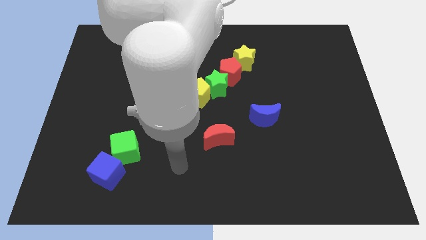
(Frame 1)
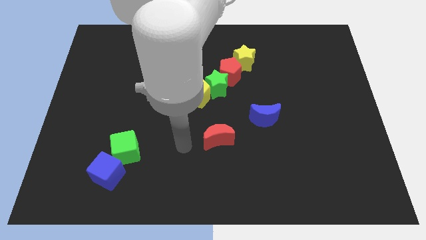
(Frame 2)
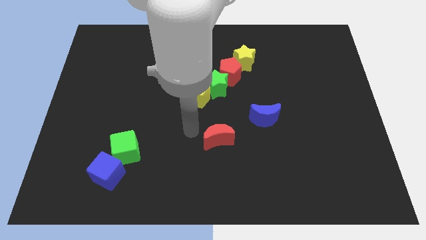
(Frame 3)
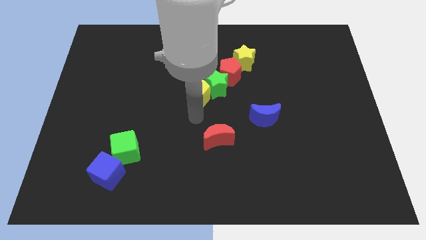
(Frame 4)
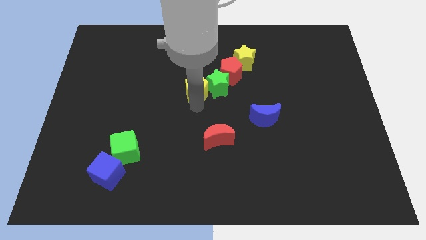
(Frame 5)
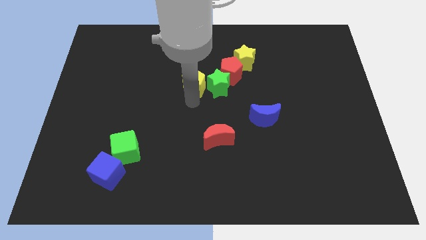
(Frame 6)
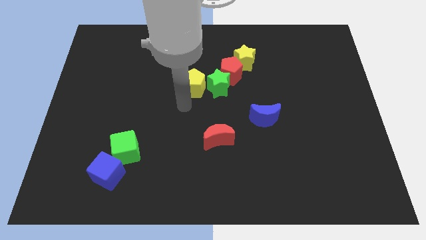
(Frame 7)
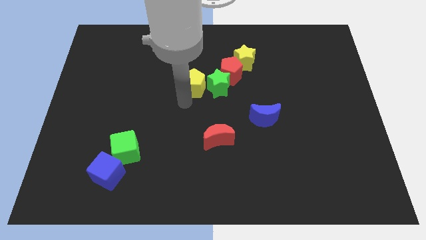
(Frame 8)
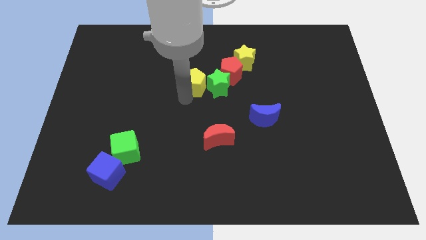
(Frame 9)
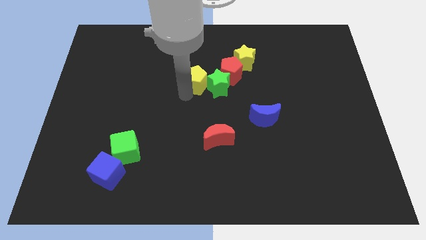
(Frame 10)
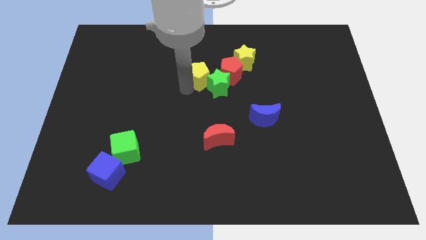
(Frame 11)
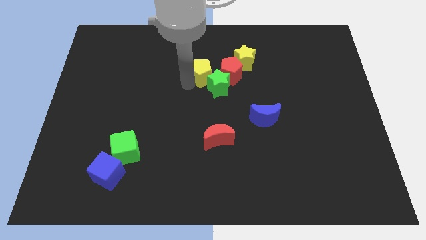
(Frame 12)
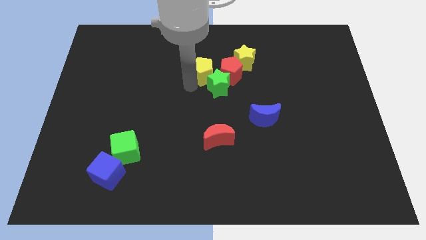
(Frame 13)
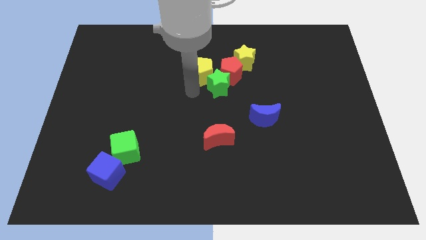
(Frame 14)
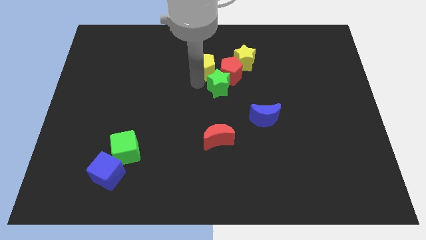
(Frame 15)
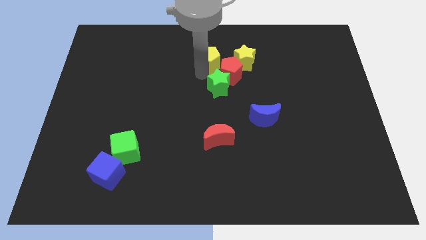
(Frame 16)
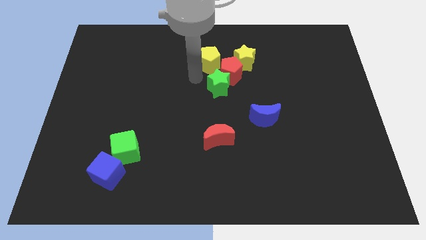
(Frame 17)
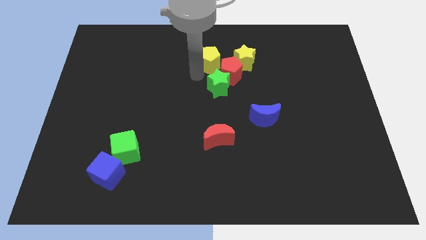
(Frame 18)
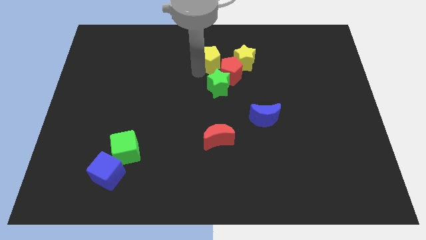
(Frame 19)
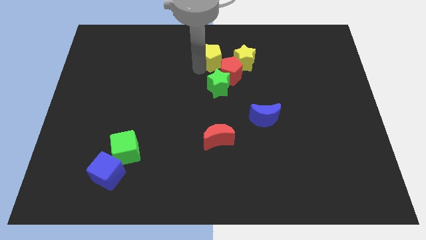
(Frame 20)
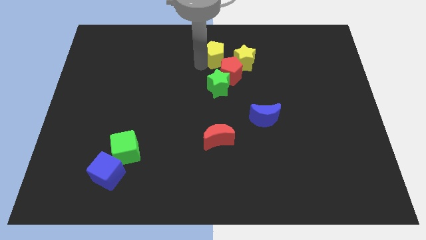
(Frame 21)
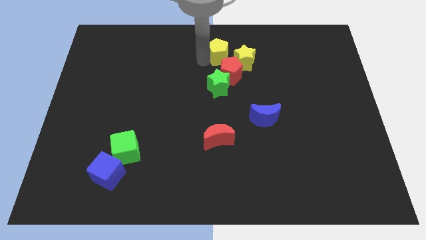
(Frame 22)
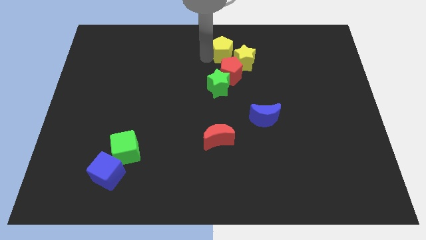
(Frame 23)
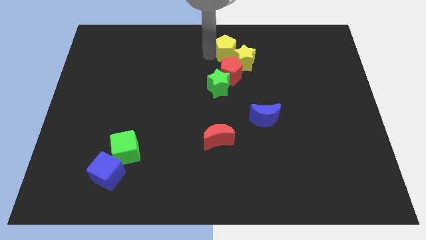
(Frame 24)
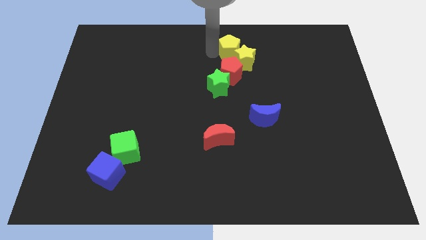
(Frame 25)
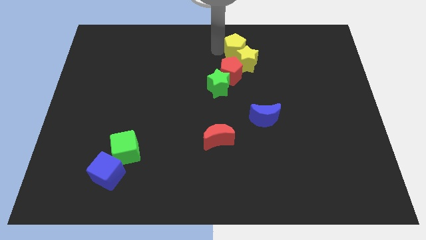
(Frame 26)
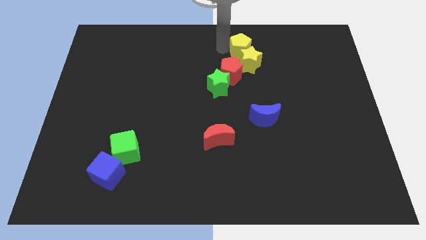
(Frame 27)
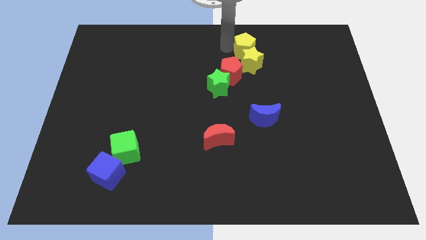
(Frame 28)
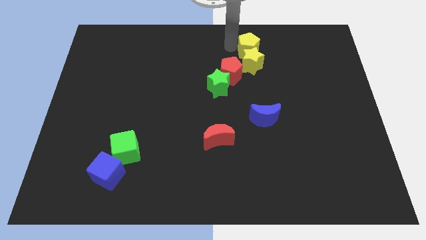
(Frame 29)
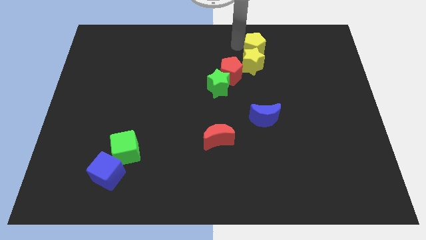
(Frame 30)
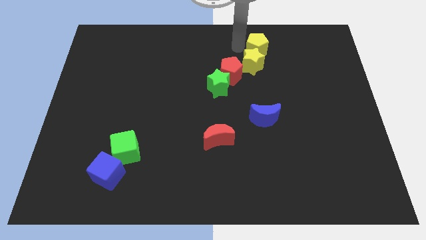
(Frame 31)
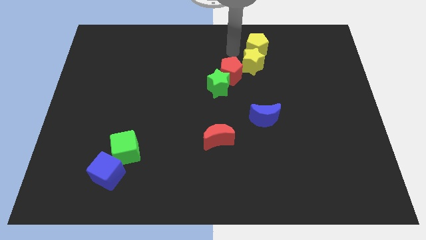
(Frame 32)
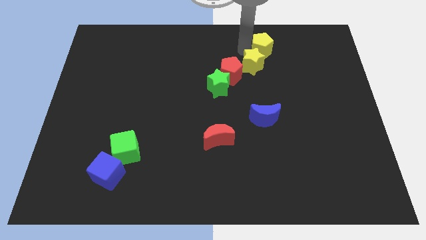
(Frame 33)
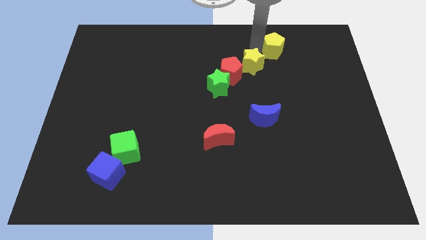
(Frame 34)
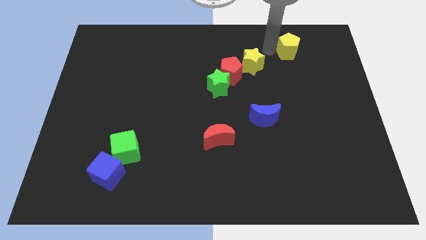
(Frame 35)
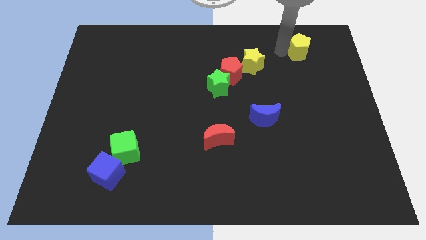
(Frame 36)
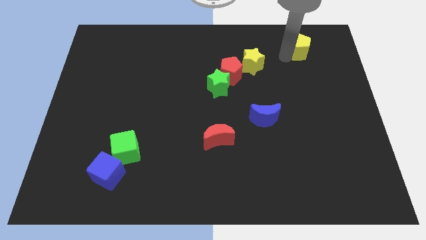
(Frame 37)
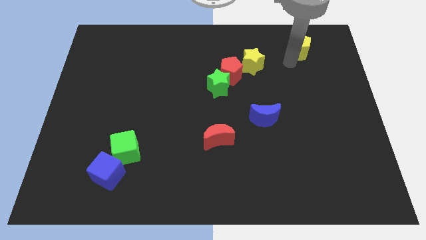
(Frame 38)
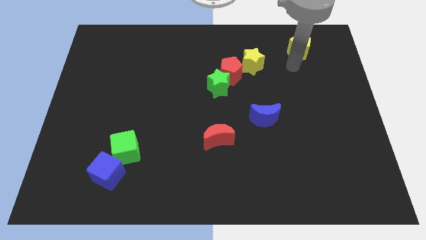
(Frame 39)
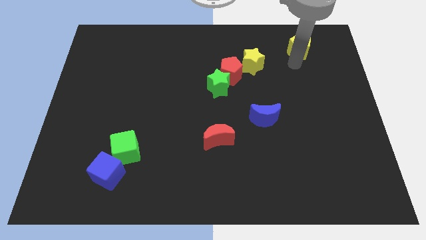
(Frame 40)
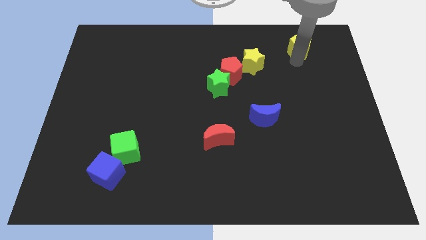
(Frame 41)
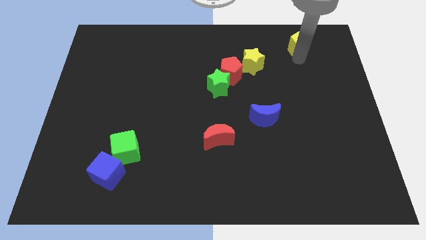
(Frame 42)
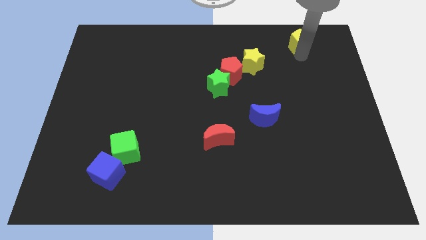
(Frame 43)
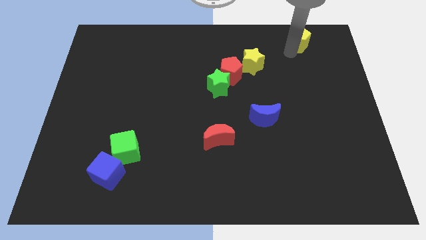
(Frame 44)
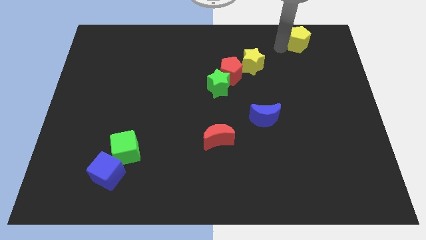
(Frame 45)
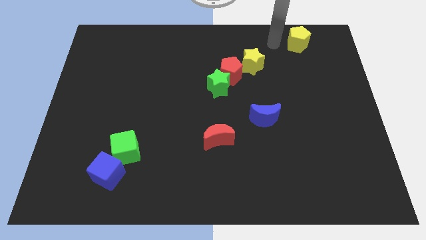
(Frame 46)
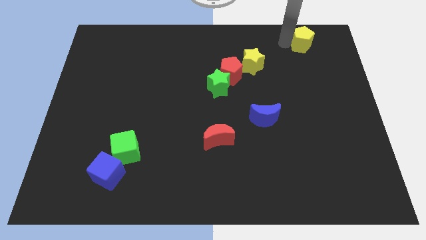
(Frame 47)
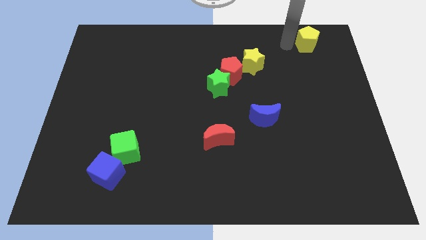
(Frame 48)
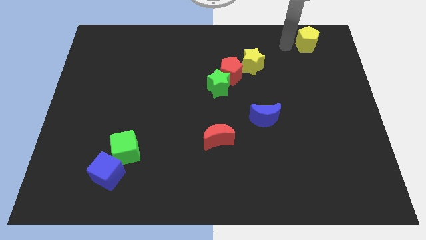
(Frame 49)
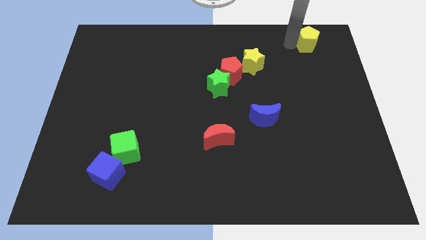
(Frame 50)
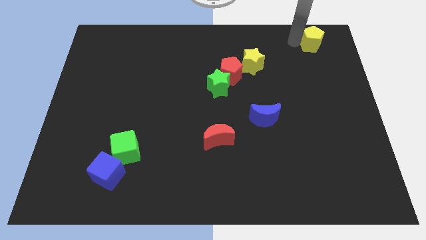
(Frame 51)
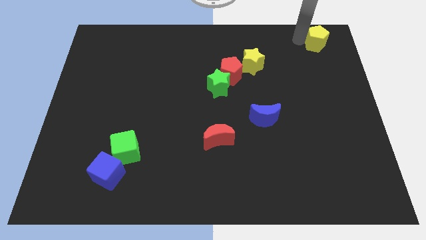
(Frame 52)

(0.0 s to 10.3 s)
move the yellow pentagon to the top right
